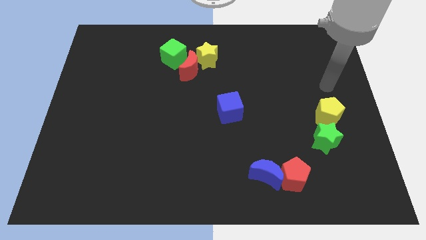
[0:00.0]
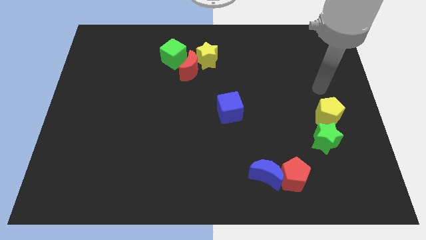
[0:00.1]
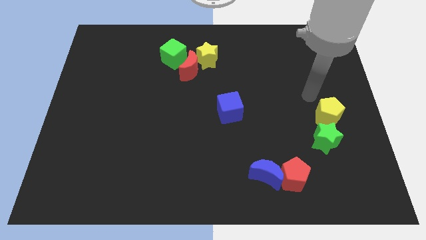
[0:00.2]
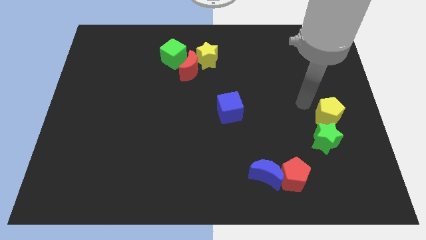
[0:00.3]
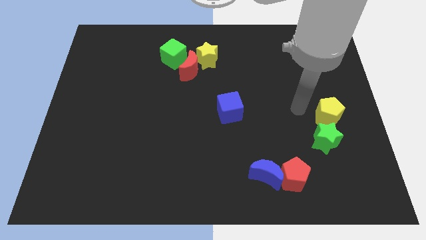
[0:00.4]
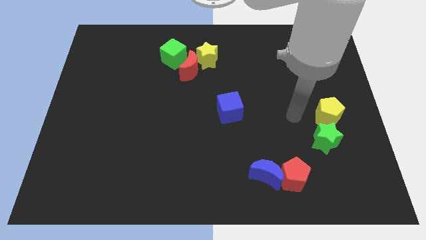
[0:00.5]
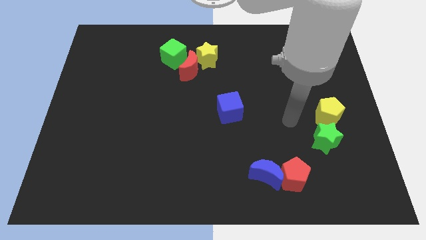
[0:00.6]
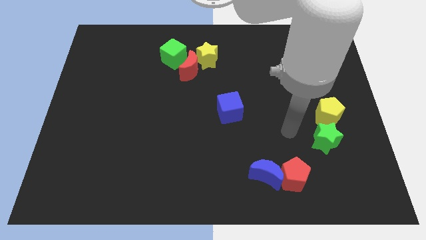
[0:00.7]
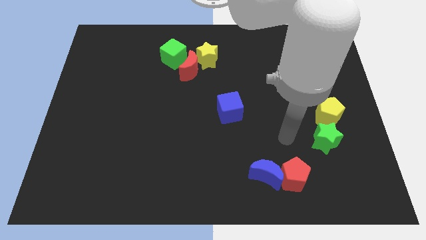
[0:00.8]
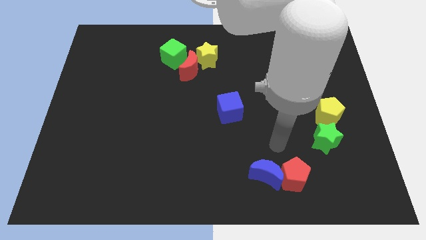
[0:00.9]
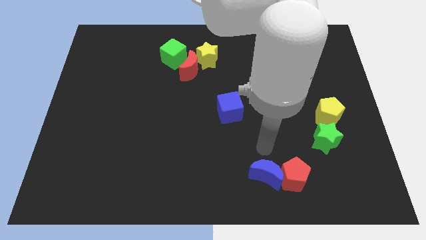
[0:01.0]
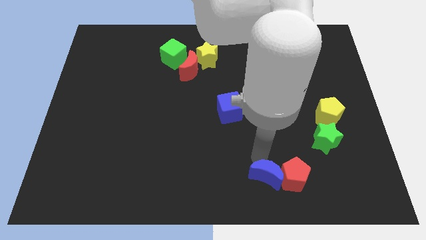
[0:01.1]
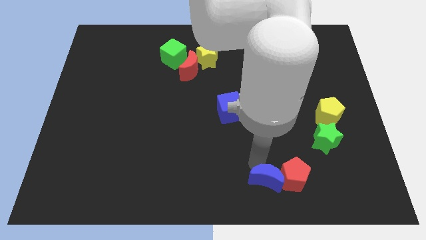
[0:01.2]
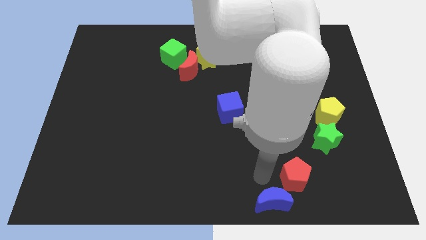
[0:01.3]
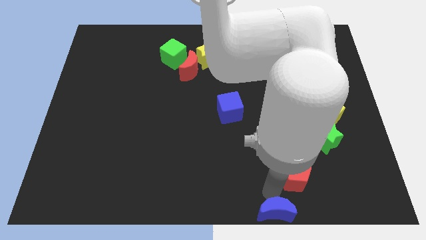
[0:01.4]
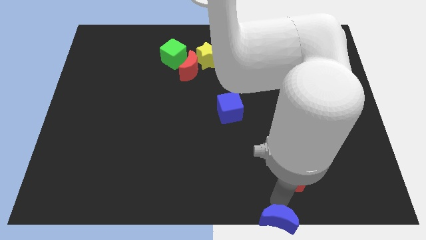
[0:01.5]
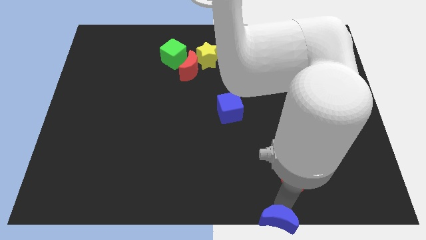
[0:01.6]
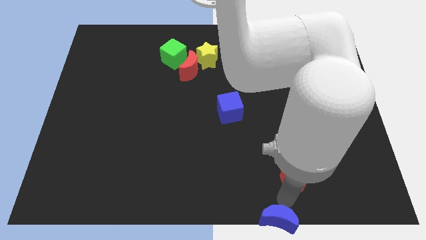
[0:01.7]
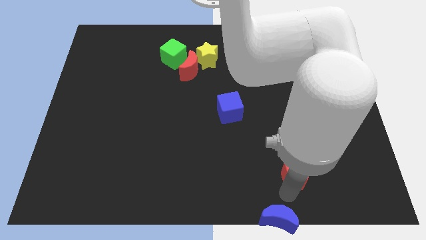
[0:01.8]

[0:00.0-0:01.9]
move the red pentagon away from the blue moon

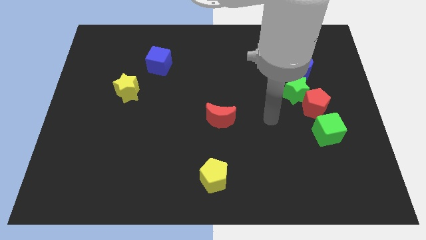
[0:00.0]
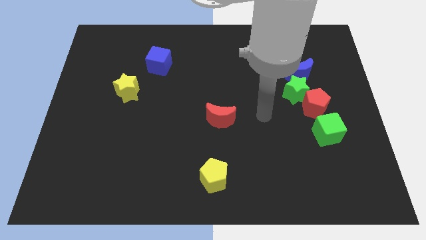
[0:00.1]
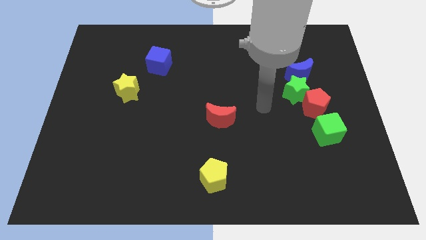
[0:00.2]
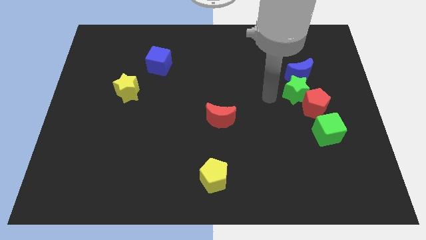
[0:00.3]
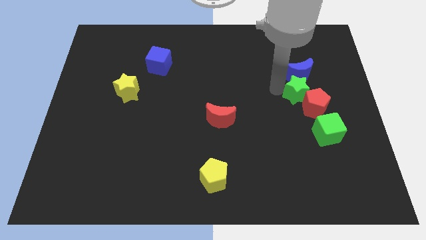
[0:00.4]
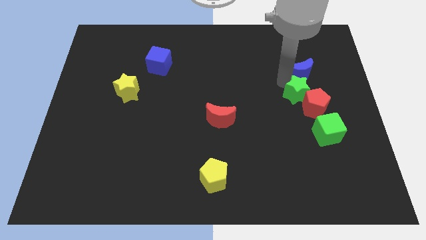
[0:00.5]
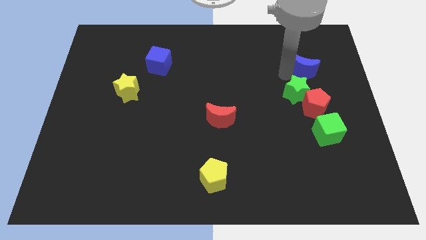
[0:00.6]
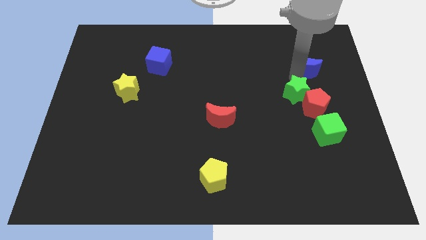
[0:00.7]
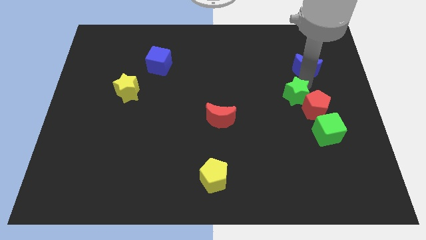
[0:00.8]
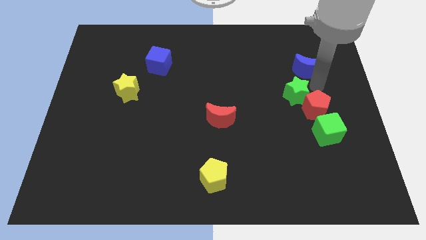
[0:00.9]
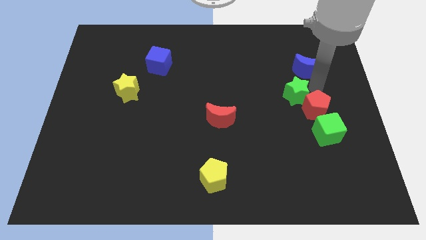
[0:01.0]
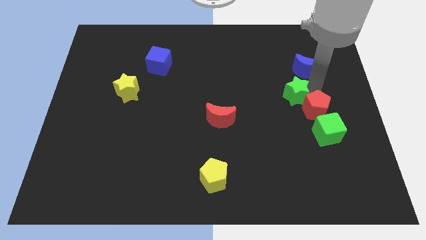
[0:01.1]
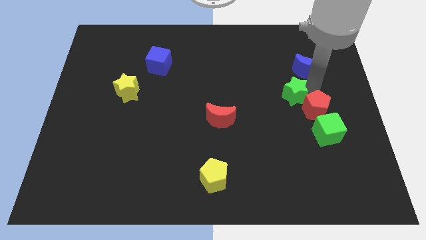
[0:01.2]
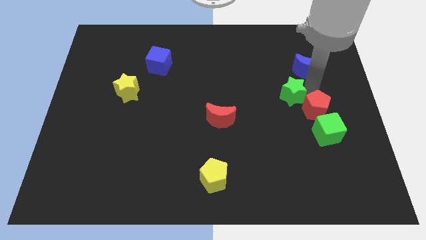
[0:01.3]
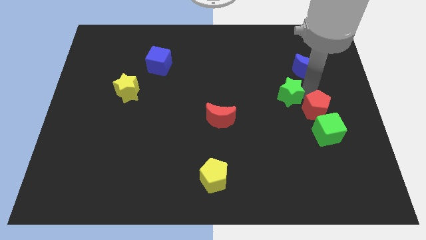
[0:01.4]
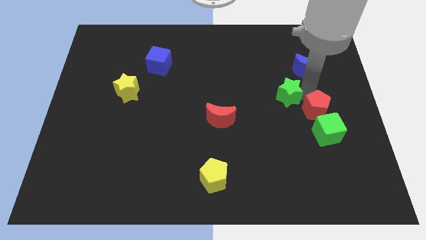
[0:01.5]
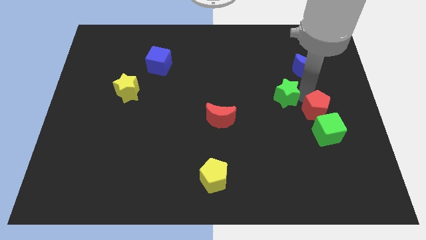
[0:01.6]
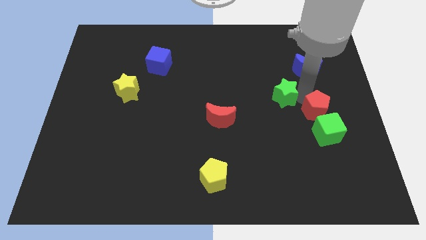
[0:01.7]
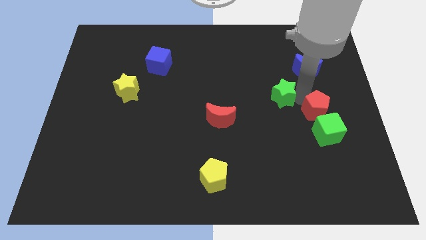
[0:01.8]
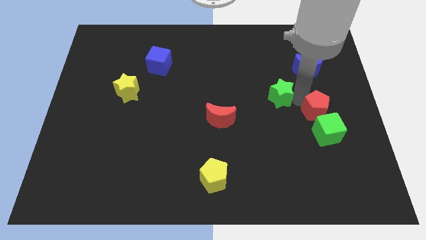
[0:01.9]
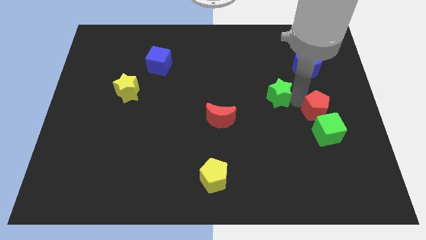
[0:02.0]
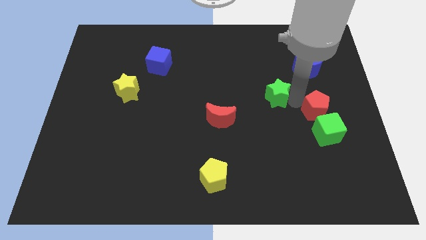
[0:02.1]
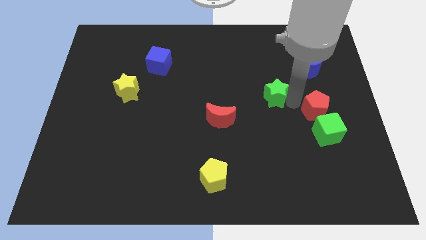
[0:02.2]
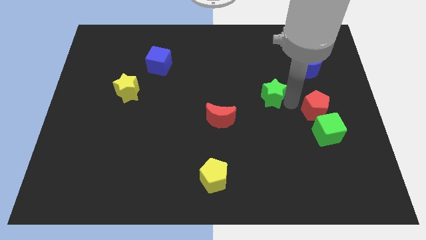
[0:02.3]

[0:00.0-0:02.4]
move the green star away from the red pentagon and blue moon

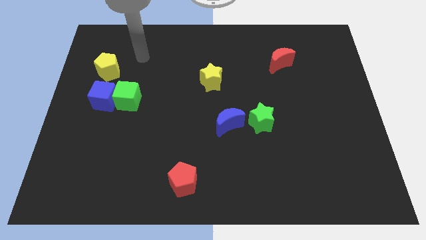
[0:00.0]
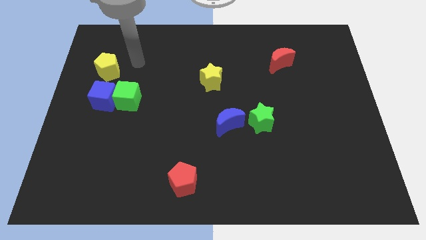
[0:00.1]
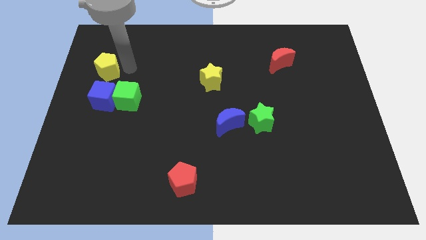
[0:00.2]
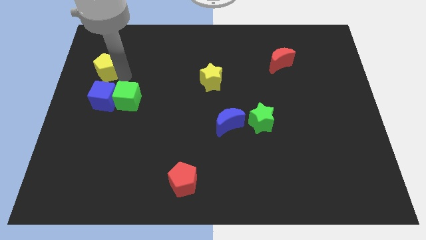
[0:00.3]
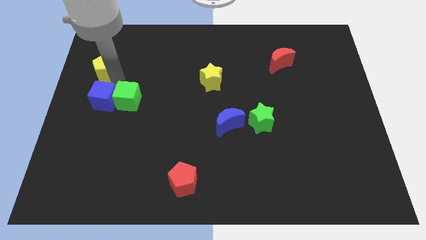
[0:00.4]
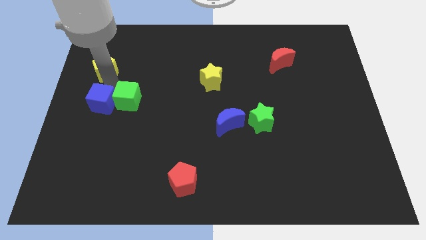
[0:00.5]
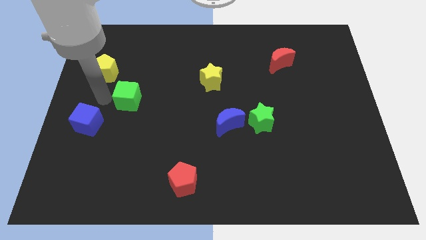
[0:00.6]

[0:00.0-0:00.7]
pull the green cube apart from the blue cube

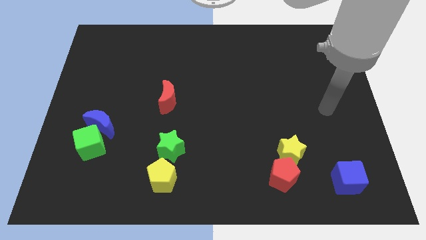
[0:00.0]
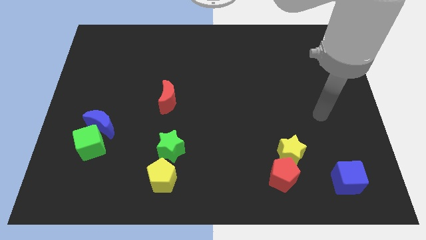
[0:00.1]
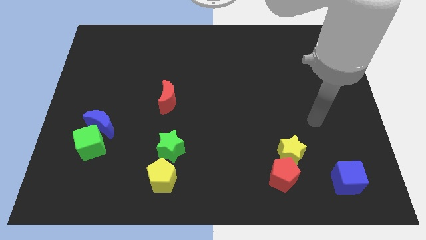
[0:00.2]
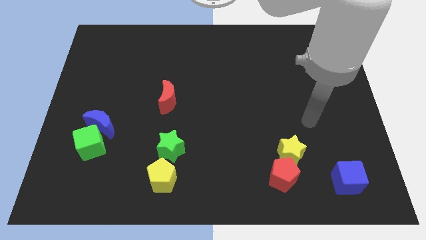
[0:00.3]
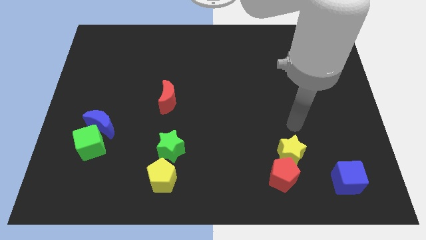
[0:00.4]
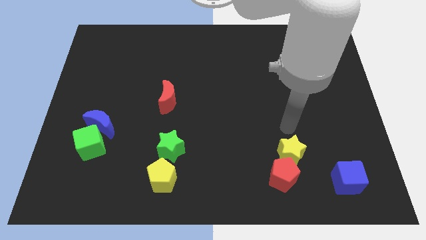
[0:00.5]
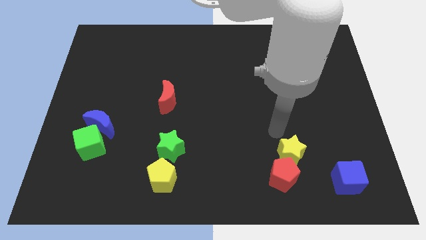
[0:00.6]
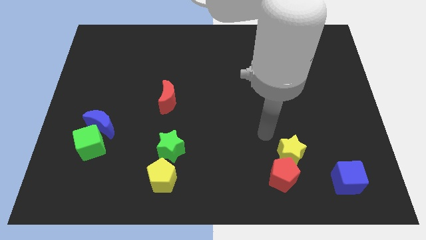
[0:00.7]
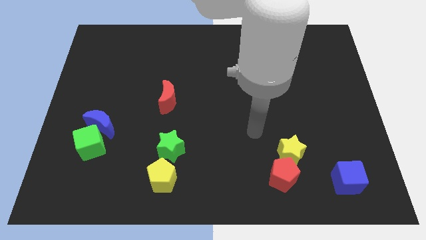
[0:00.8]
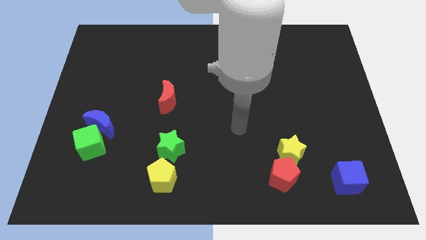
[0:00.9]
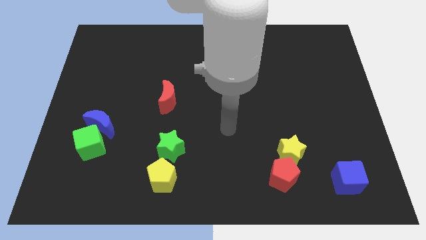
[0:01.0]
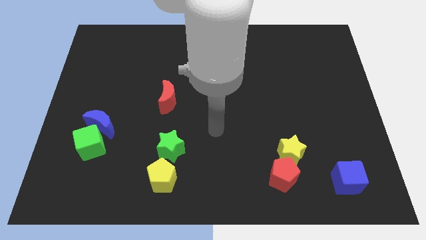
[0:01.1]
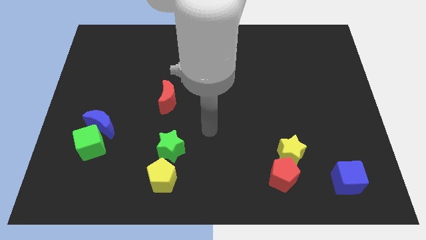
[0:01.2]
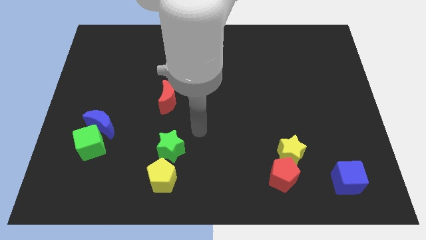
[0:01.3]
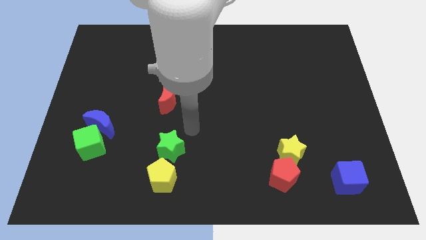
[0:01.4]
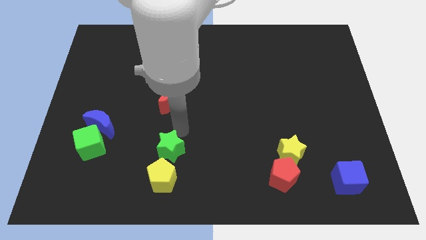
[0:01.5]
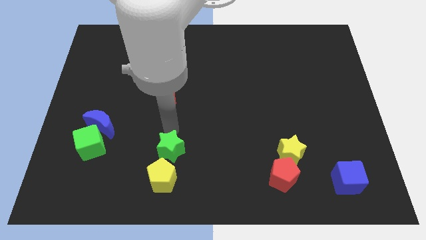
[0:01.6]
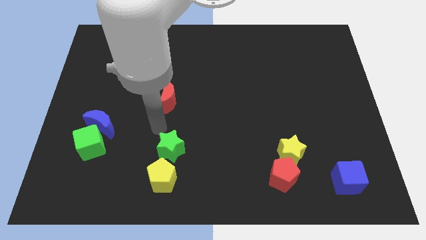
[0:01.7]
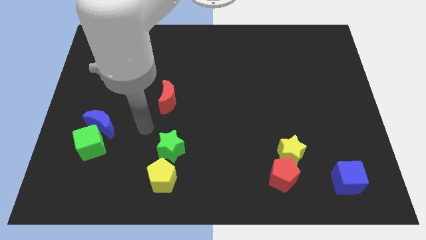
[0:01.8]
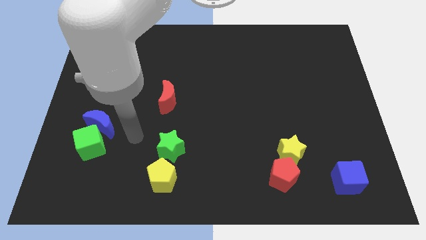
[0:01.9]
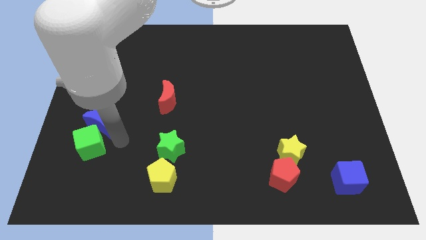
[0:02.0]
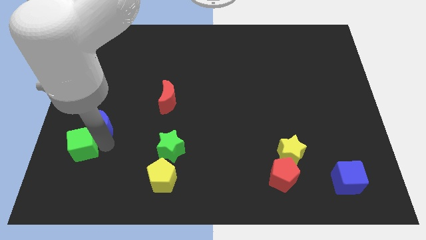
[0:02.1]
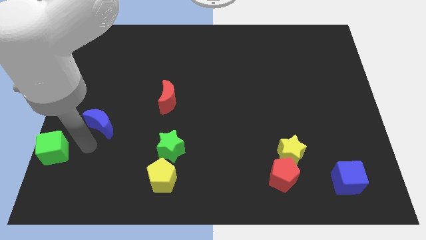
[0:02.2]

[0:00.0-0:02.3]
move the blue moon away from the green cube

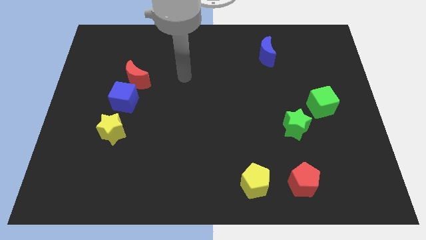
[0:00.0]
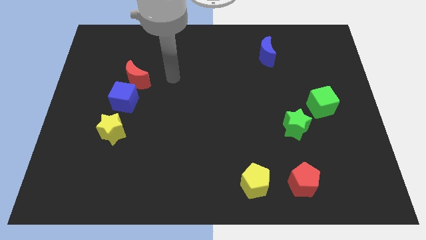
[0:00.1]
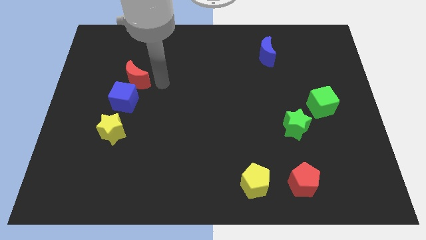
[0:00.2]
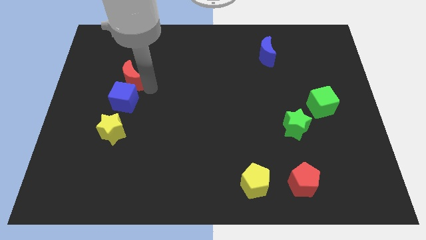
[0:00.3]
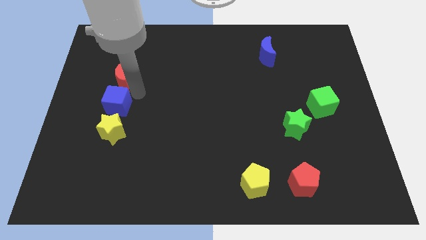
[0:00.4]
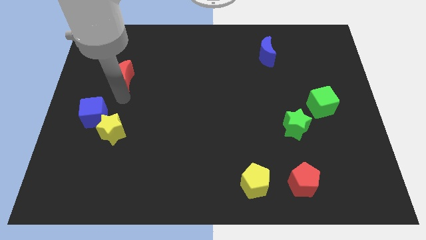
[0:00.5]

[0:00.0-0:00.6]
pull the red moon apart from the blue cube

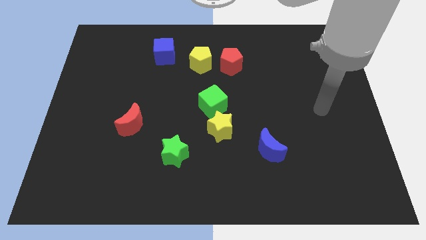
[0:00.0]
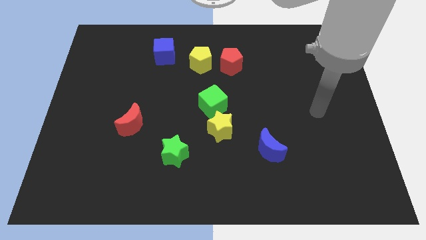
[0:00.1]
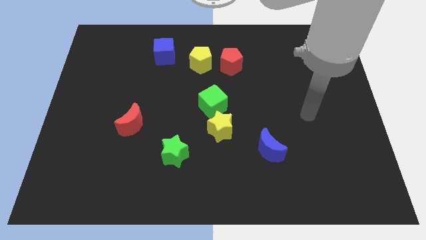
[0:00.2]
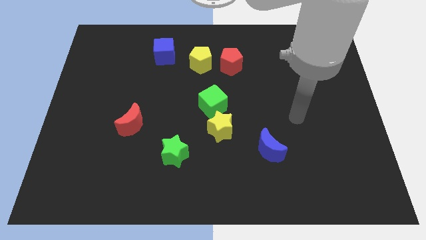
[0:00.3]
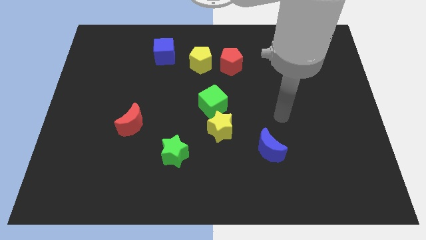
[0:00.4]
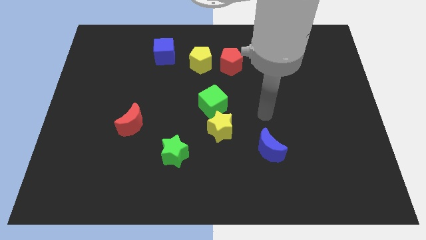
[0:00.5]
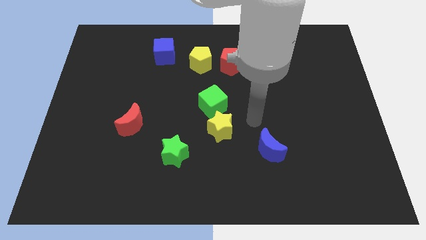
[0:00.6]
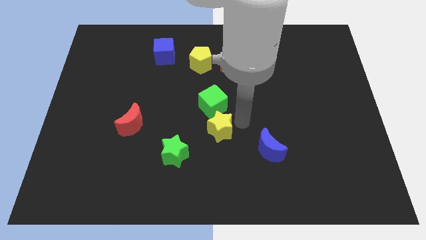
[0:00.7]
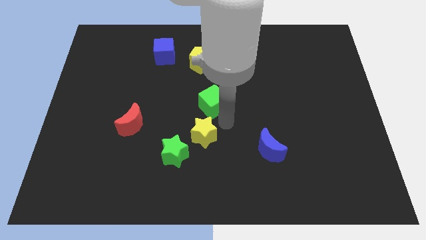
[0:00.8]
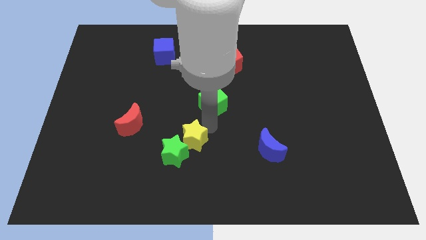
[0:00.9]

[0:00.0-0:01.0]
move the green cube away from the yellow star

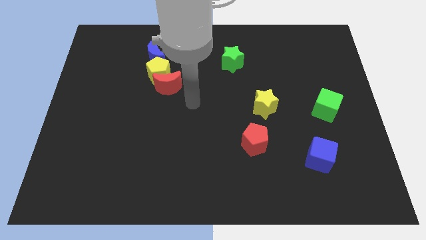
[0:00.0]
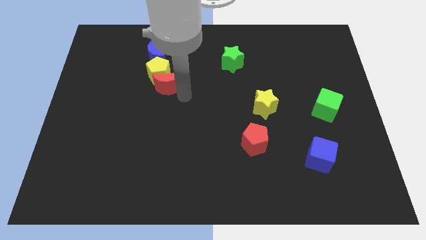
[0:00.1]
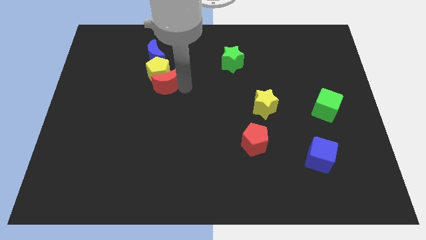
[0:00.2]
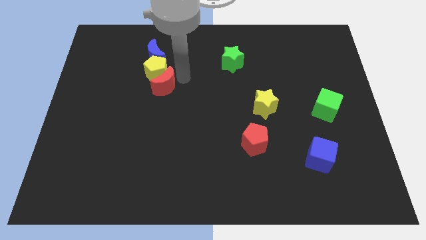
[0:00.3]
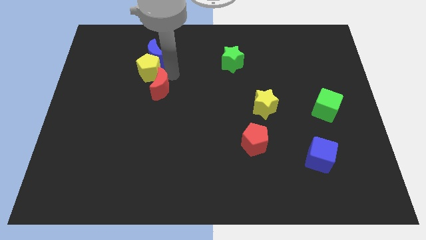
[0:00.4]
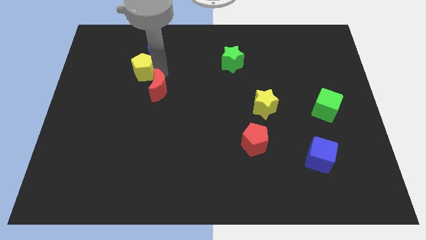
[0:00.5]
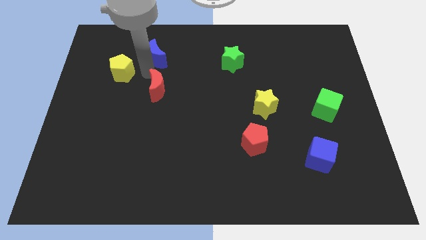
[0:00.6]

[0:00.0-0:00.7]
move the red moon away from the yellow pentagon
